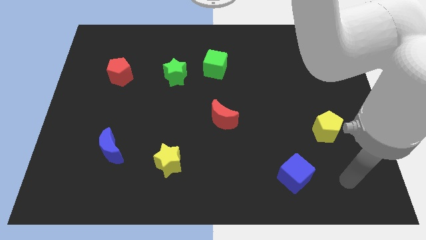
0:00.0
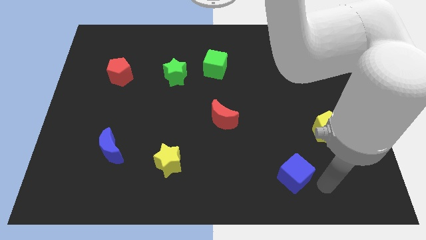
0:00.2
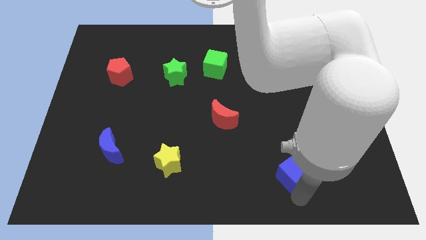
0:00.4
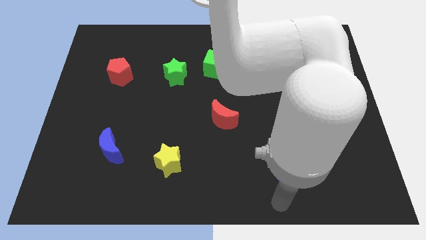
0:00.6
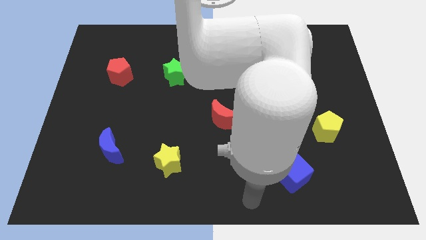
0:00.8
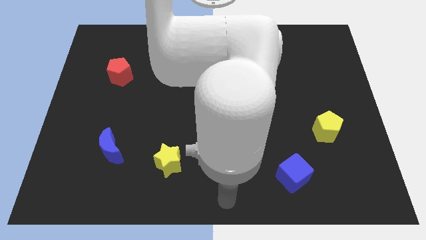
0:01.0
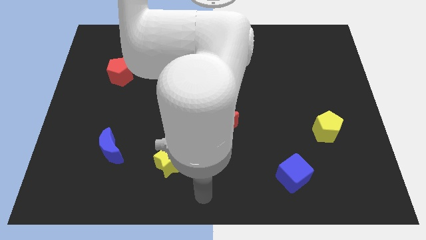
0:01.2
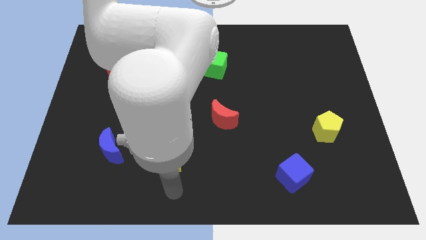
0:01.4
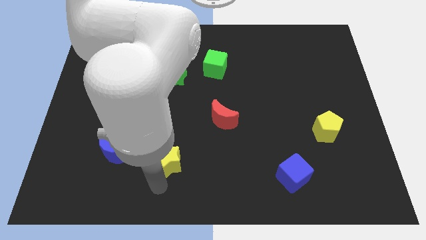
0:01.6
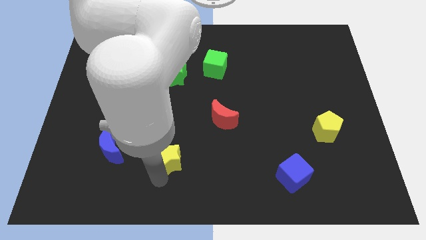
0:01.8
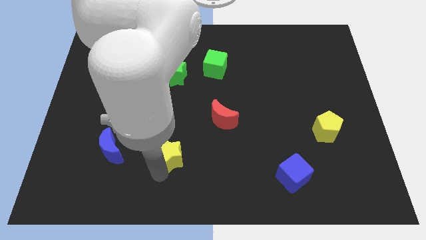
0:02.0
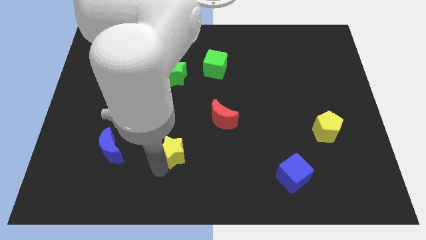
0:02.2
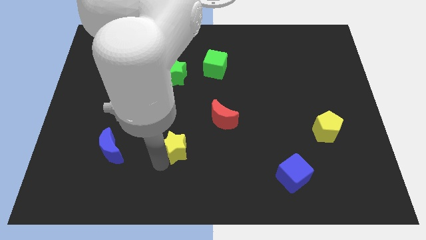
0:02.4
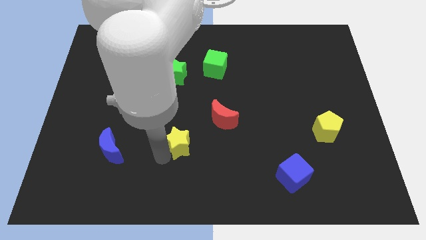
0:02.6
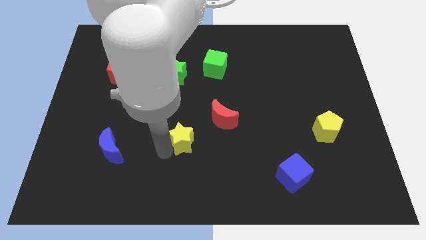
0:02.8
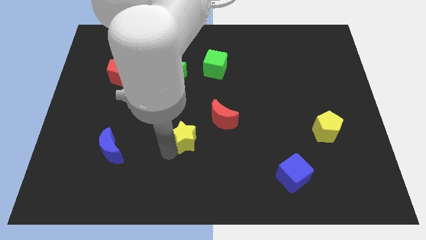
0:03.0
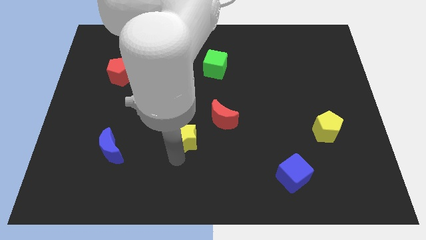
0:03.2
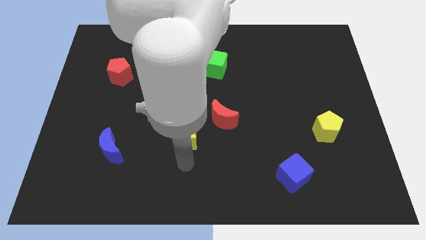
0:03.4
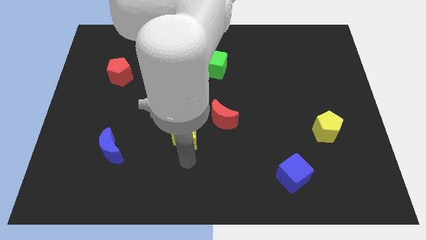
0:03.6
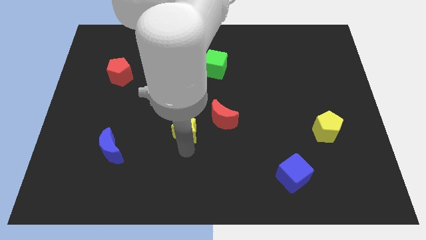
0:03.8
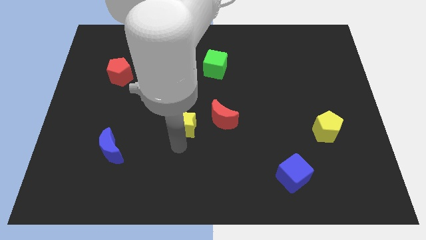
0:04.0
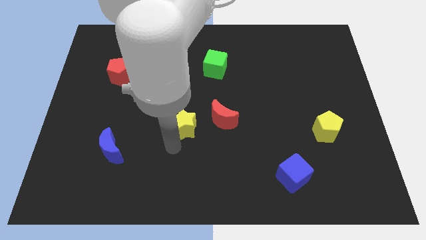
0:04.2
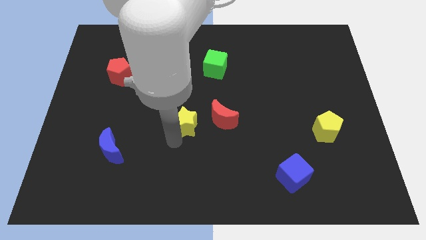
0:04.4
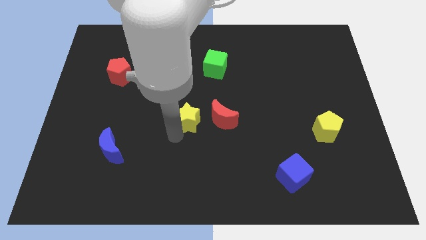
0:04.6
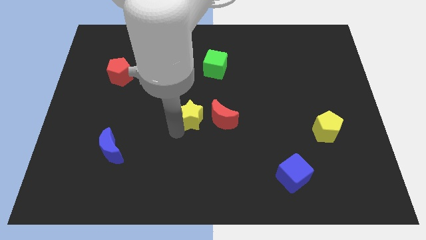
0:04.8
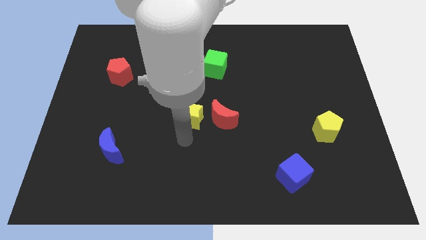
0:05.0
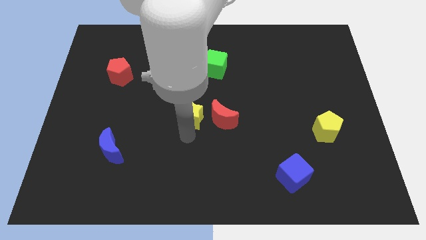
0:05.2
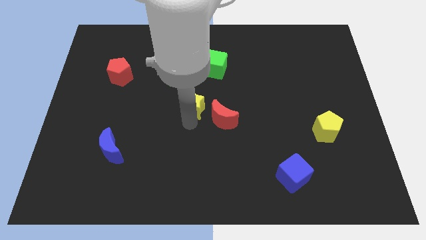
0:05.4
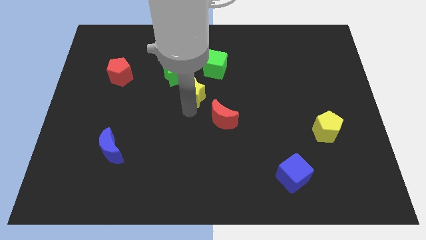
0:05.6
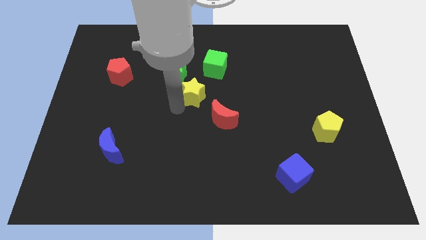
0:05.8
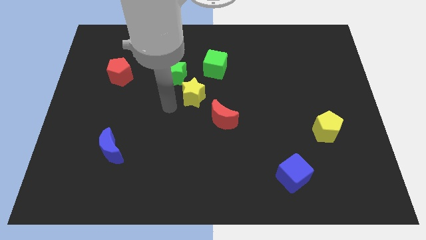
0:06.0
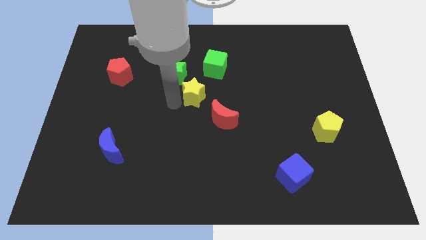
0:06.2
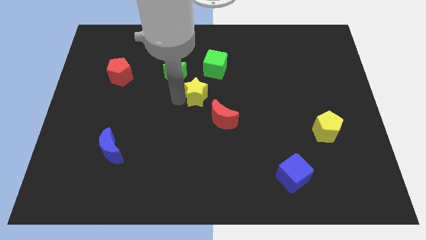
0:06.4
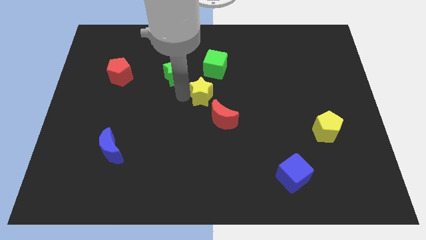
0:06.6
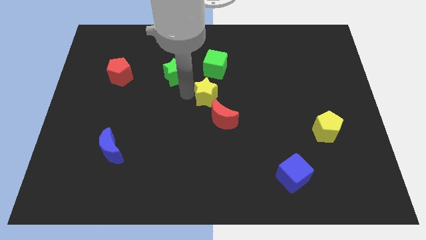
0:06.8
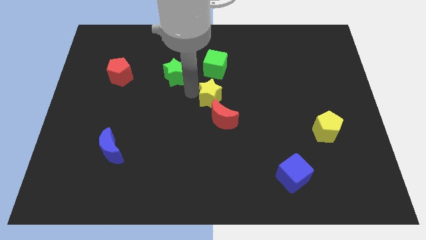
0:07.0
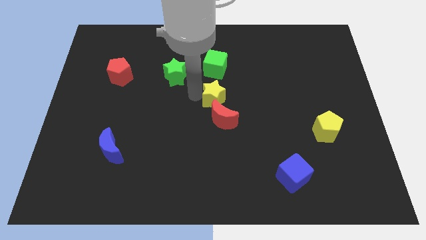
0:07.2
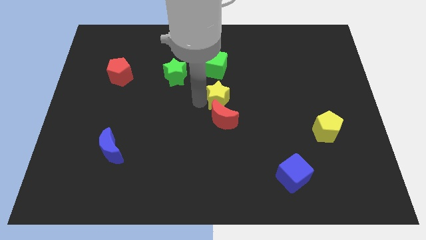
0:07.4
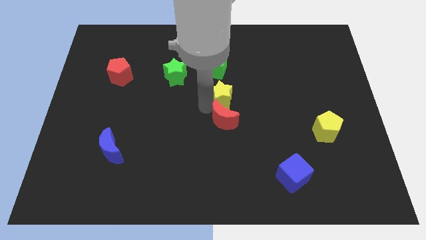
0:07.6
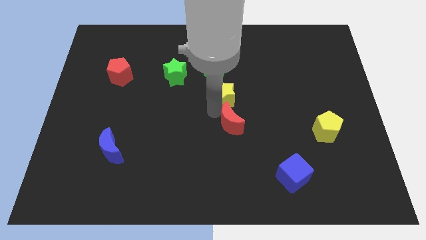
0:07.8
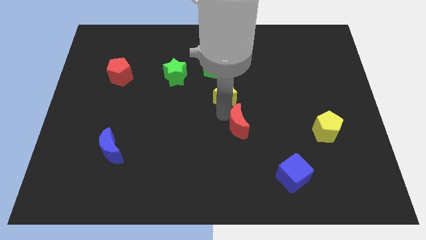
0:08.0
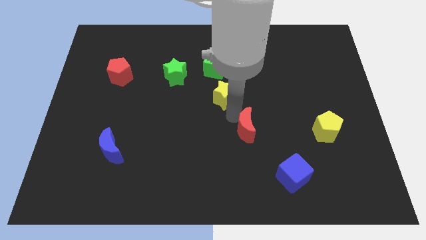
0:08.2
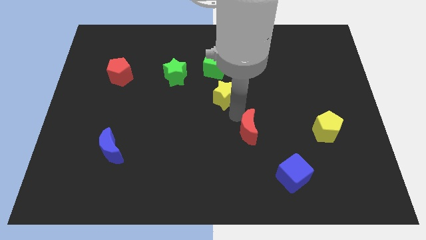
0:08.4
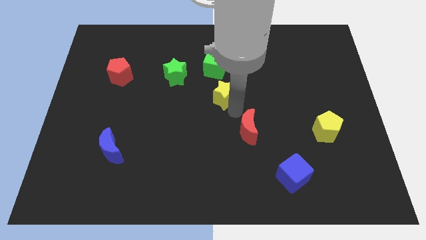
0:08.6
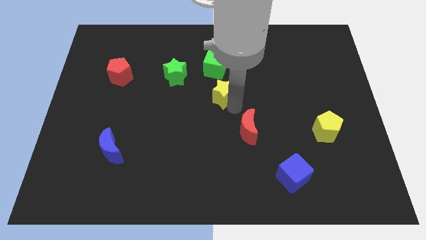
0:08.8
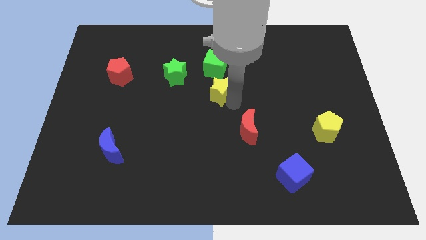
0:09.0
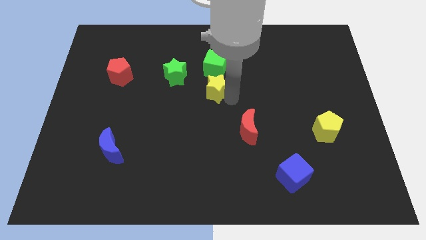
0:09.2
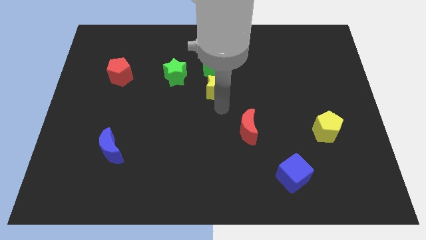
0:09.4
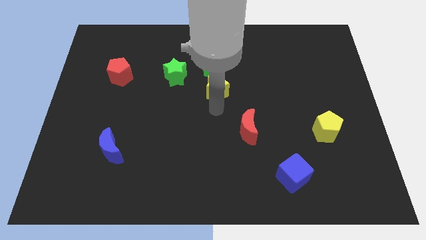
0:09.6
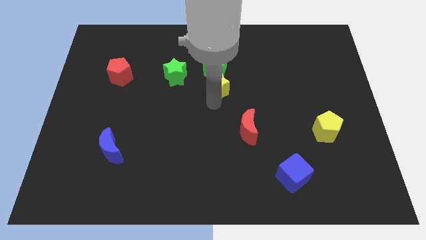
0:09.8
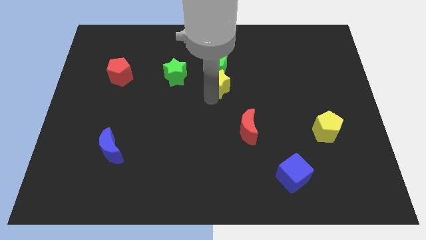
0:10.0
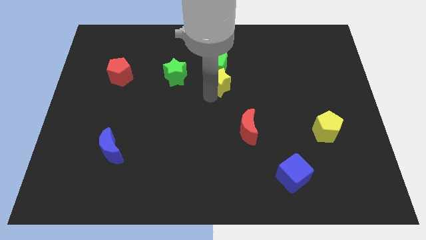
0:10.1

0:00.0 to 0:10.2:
slide the yellow star to the green cube
